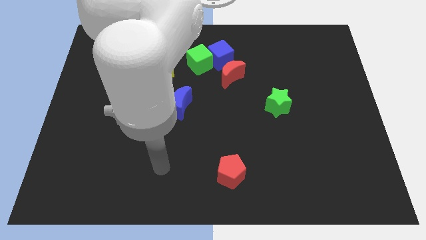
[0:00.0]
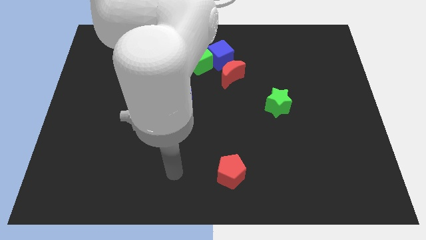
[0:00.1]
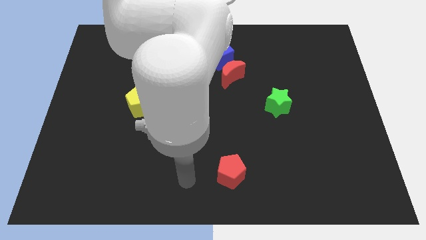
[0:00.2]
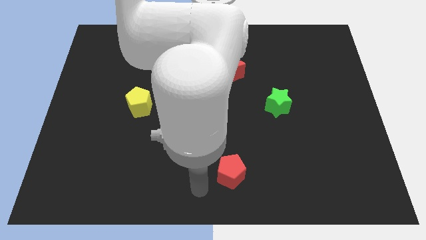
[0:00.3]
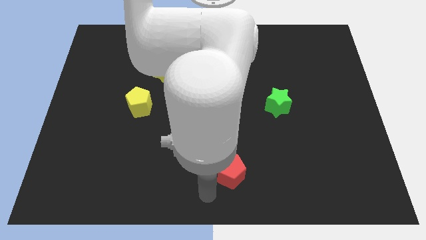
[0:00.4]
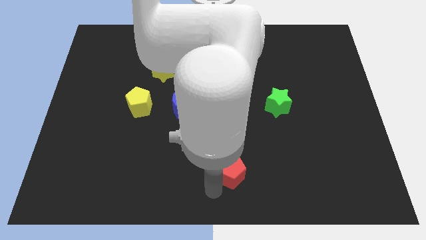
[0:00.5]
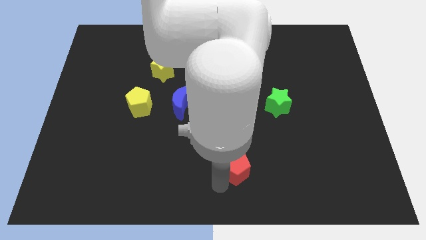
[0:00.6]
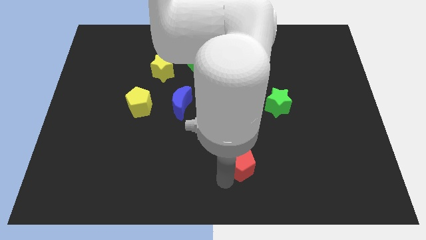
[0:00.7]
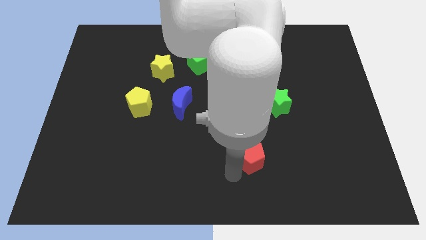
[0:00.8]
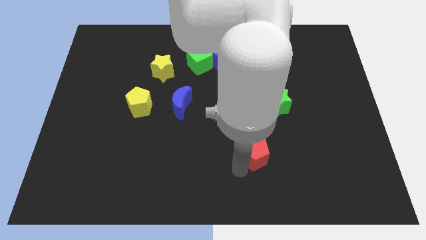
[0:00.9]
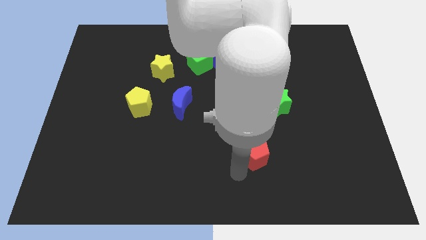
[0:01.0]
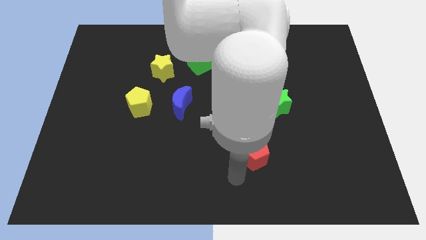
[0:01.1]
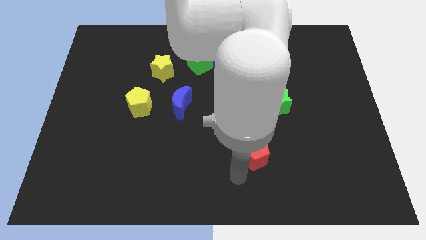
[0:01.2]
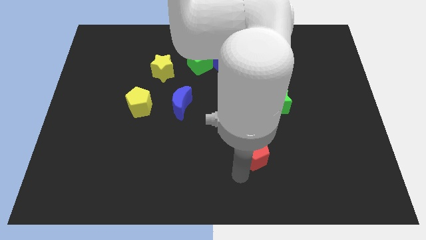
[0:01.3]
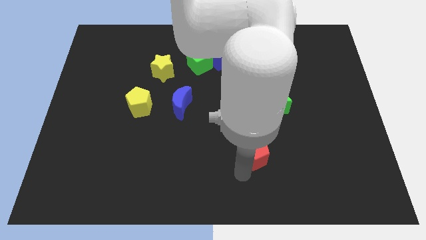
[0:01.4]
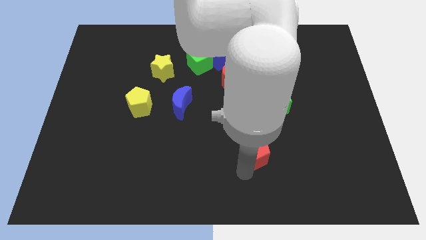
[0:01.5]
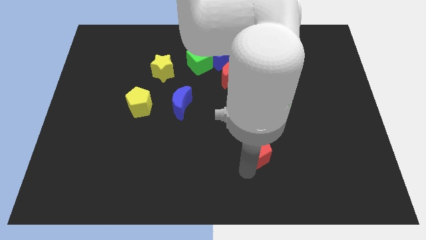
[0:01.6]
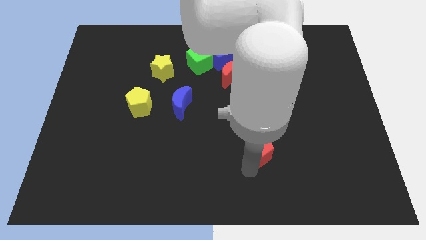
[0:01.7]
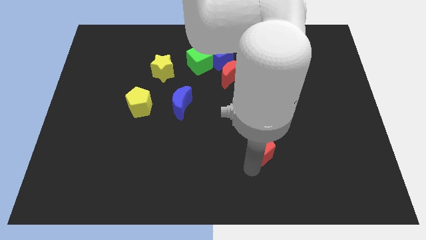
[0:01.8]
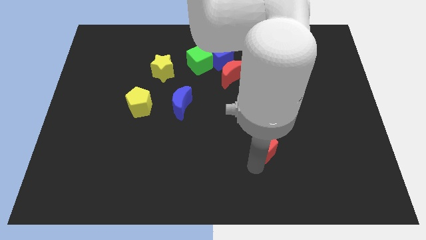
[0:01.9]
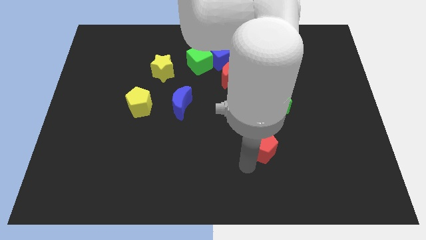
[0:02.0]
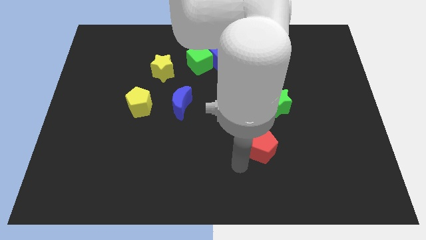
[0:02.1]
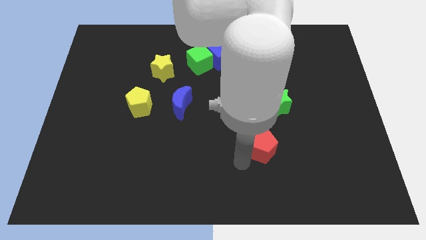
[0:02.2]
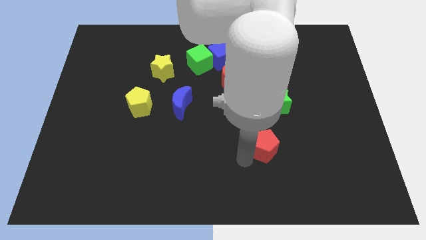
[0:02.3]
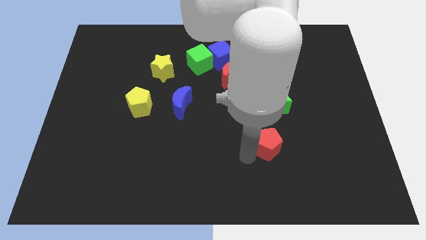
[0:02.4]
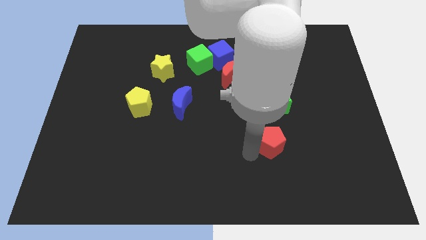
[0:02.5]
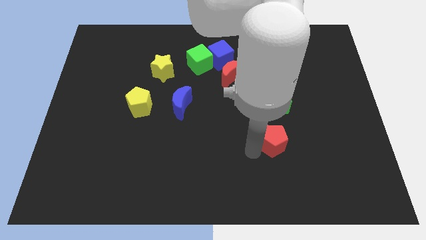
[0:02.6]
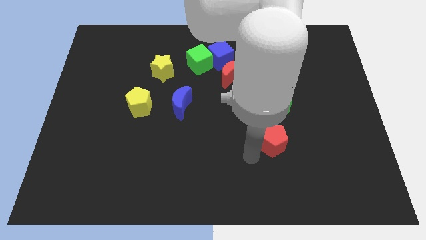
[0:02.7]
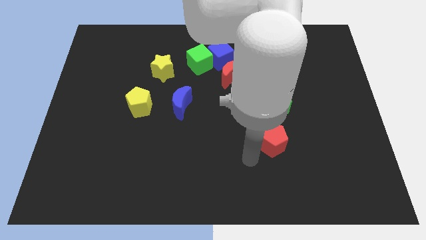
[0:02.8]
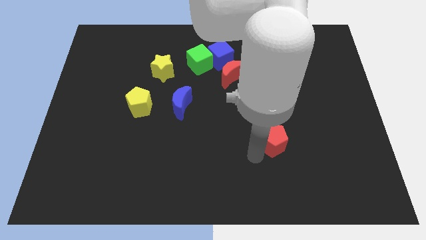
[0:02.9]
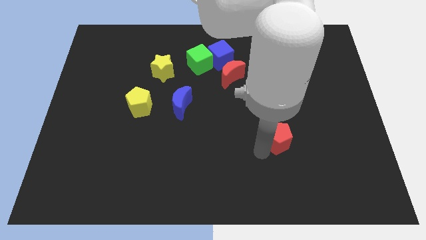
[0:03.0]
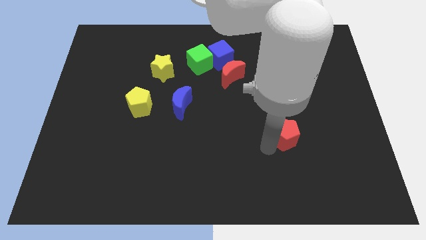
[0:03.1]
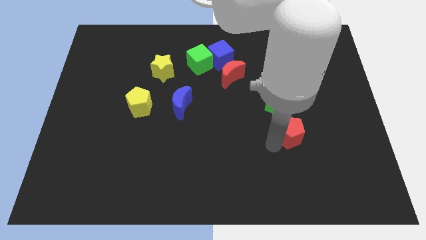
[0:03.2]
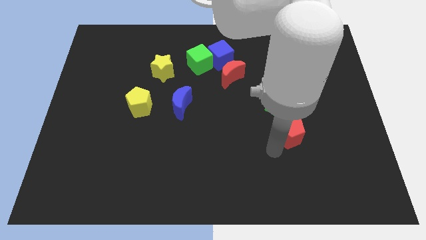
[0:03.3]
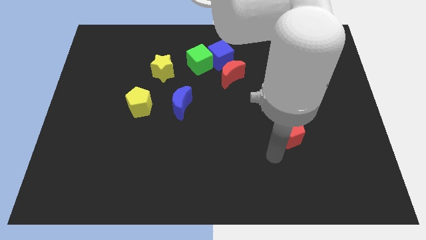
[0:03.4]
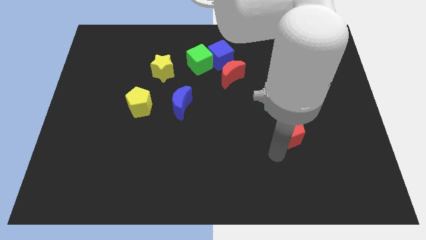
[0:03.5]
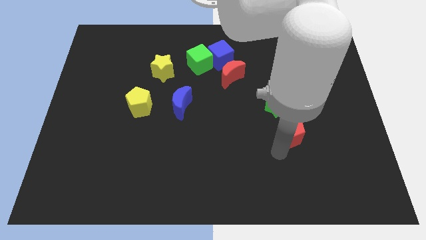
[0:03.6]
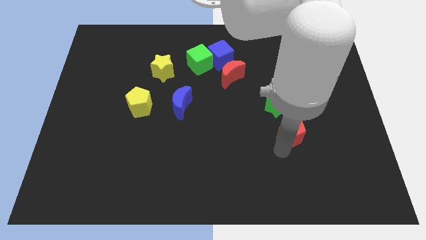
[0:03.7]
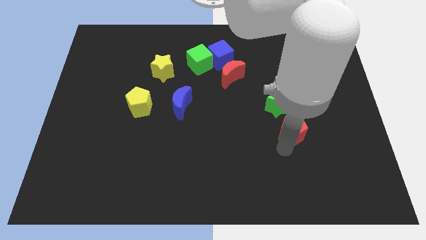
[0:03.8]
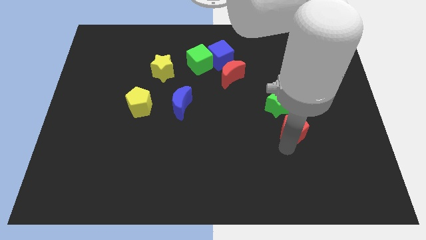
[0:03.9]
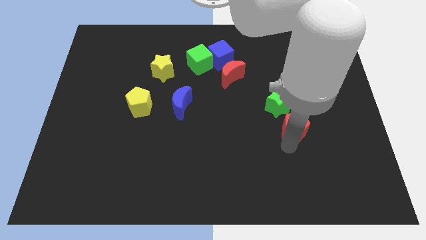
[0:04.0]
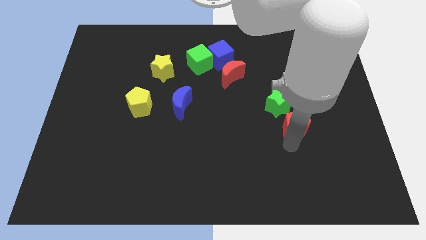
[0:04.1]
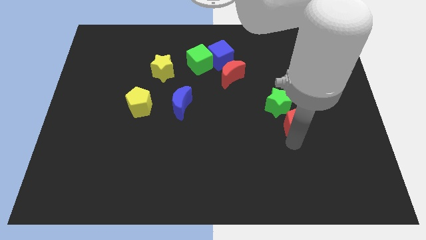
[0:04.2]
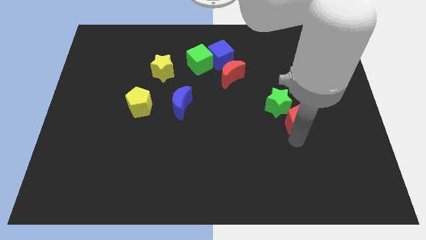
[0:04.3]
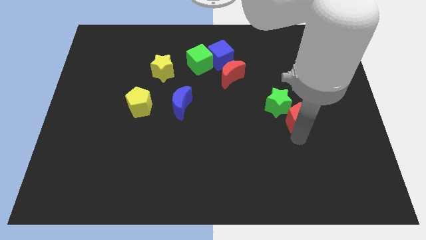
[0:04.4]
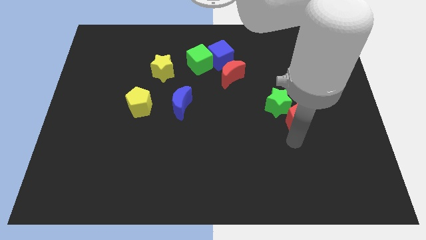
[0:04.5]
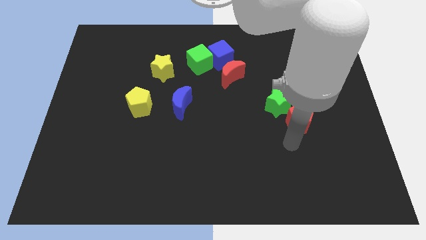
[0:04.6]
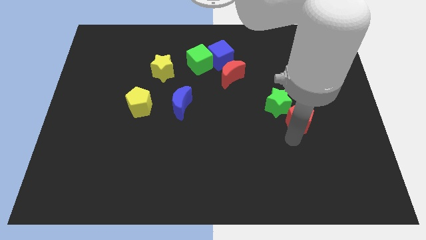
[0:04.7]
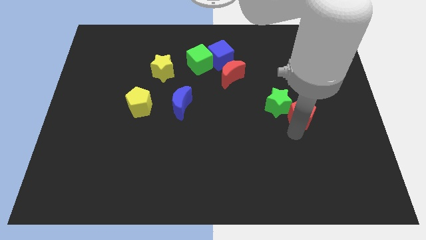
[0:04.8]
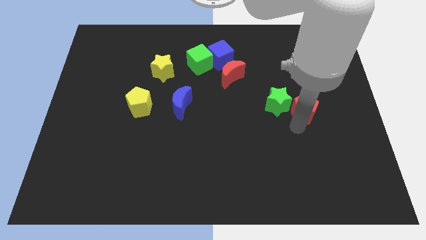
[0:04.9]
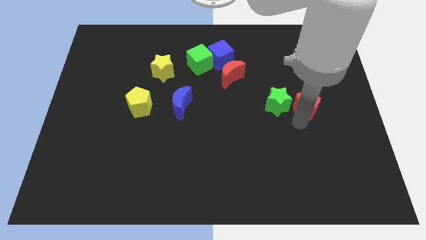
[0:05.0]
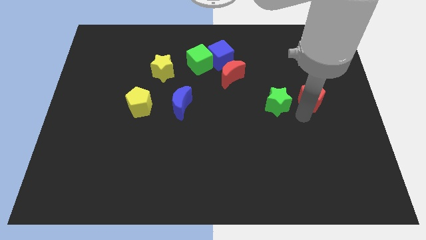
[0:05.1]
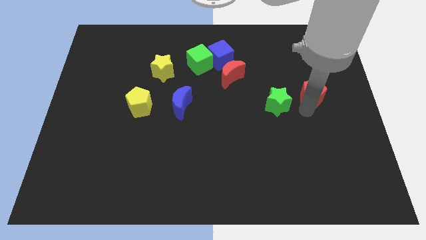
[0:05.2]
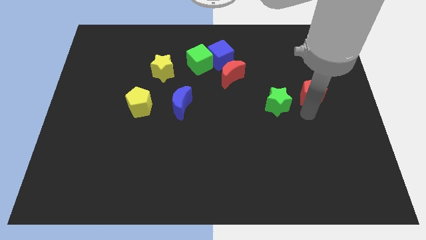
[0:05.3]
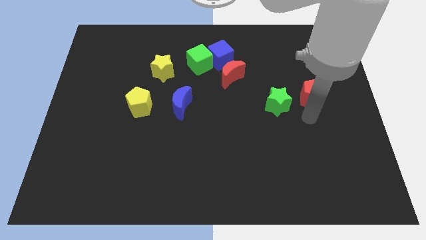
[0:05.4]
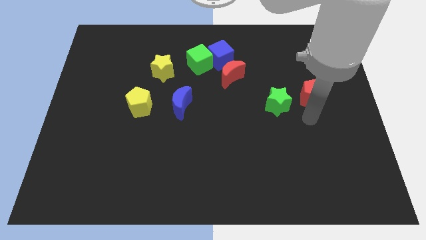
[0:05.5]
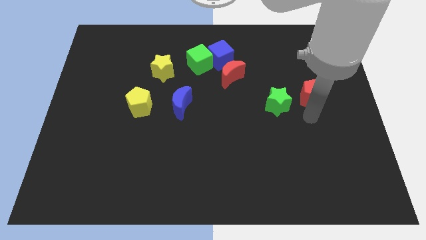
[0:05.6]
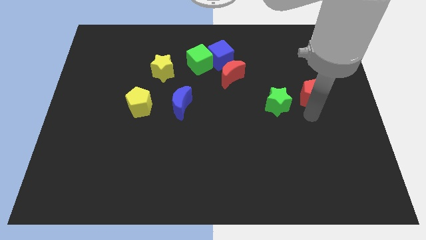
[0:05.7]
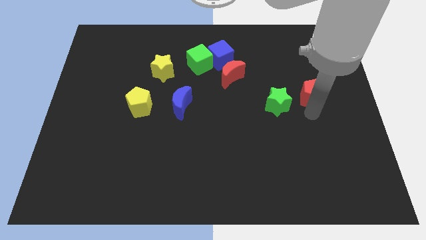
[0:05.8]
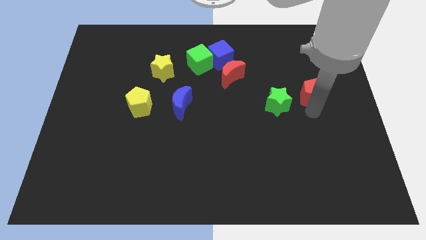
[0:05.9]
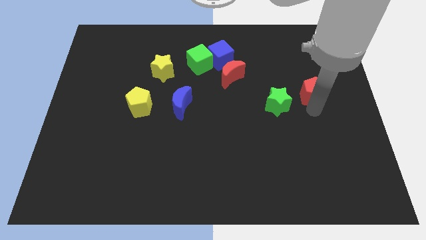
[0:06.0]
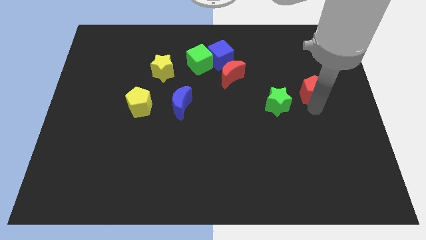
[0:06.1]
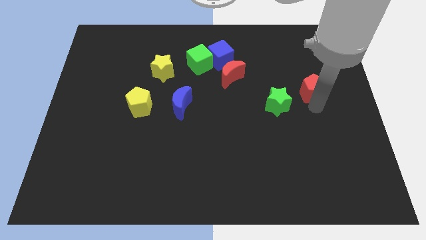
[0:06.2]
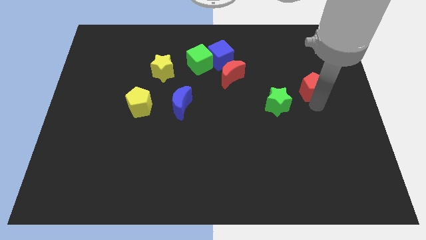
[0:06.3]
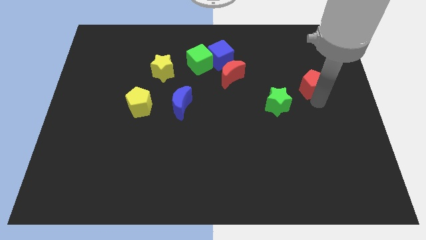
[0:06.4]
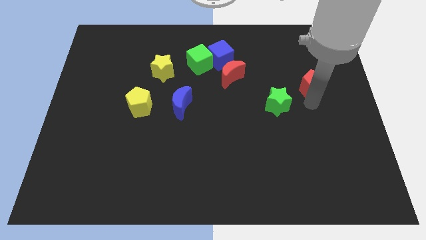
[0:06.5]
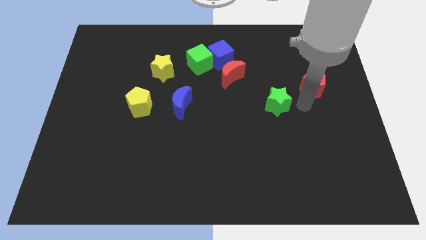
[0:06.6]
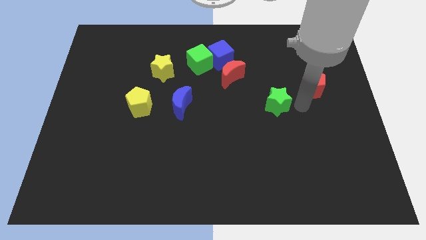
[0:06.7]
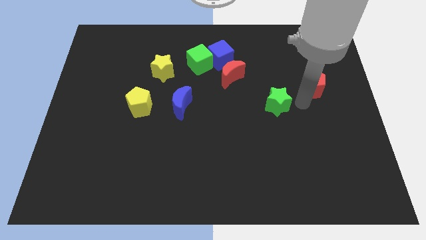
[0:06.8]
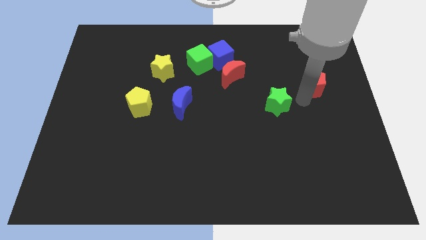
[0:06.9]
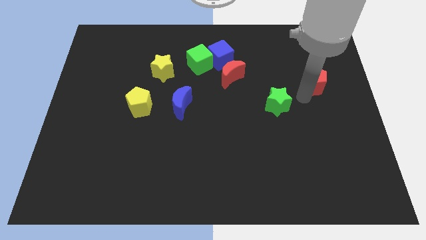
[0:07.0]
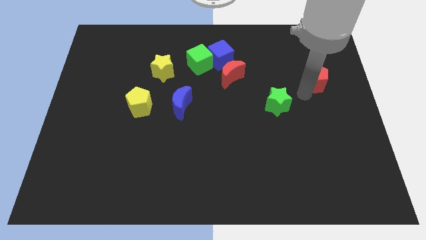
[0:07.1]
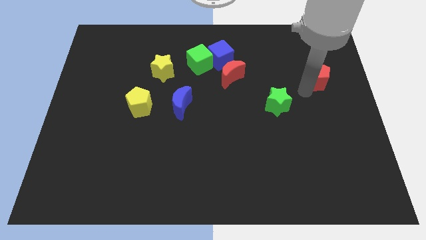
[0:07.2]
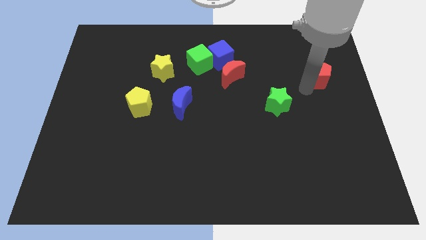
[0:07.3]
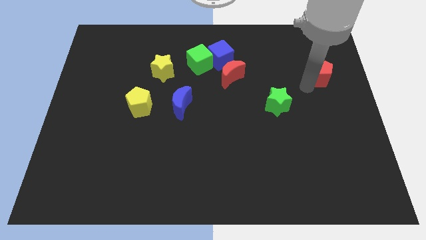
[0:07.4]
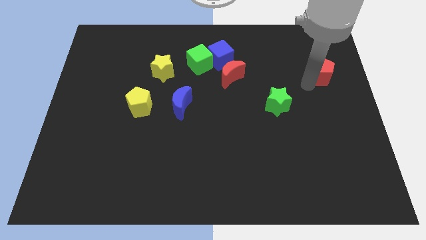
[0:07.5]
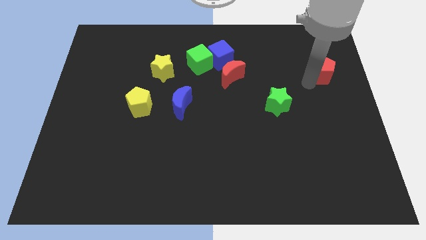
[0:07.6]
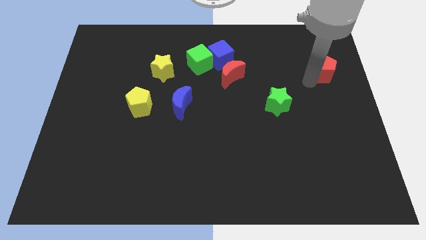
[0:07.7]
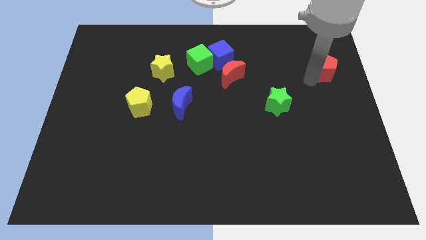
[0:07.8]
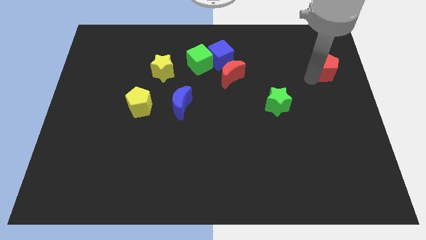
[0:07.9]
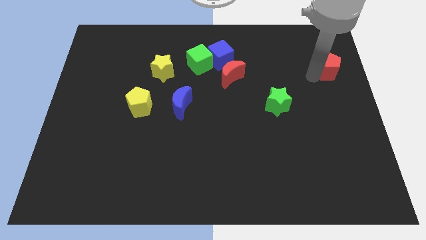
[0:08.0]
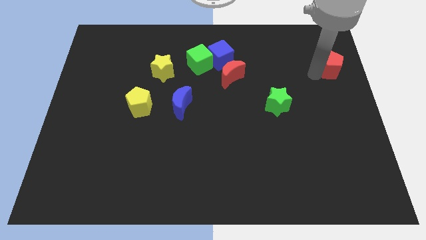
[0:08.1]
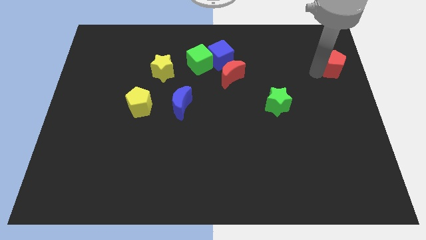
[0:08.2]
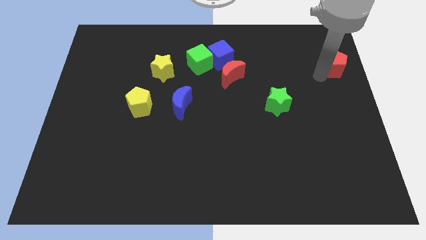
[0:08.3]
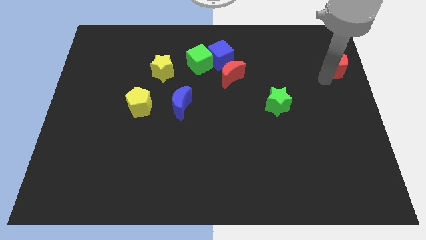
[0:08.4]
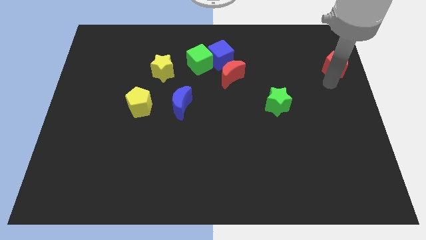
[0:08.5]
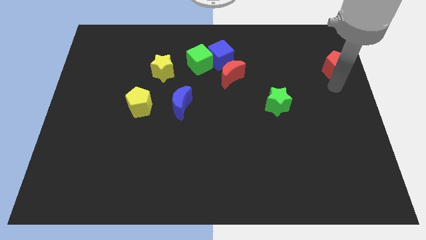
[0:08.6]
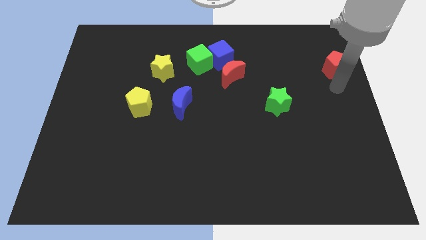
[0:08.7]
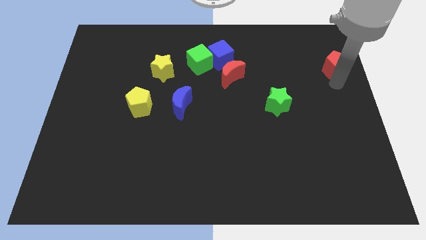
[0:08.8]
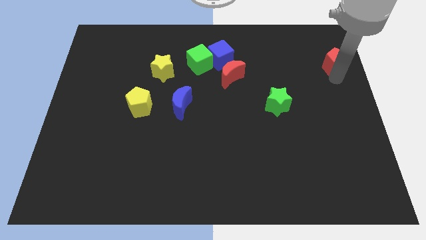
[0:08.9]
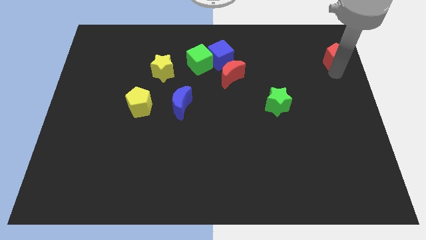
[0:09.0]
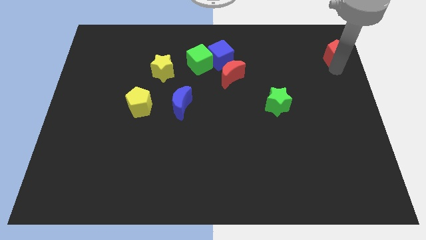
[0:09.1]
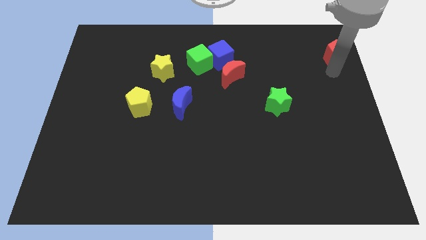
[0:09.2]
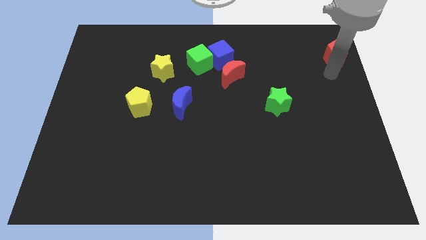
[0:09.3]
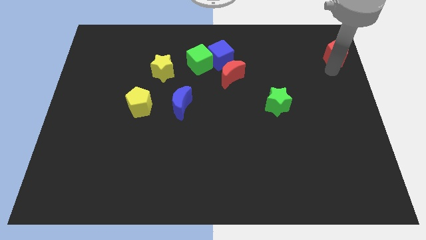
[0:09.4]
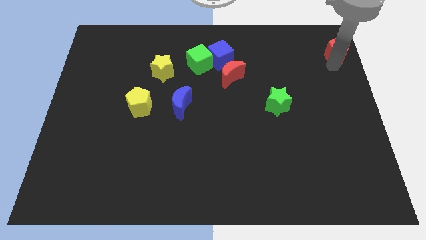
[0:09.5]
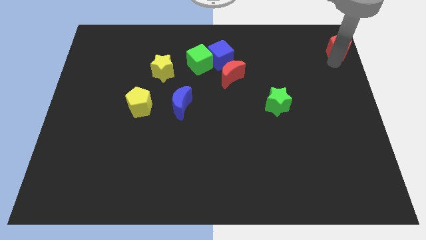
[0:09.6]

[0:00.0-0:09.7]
put the red pentagon to the upper right corner
